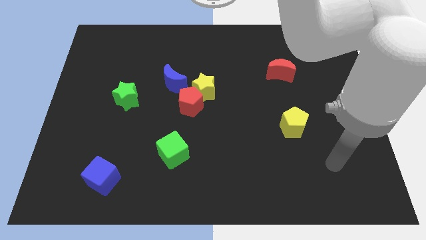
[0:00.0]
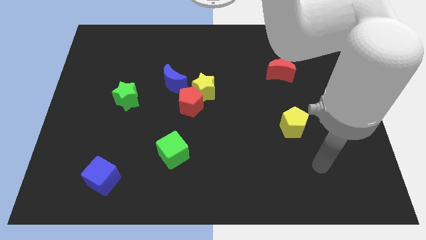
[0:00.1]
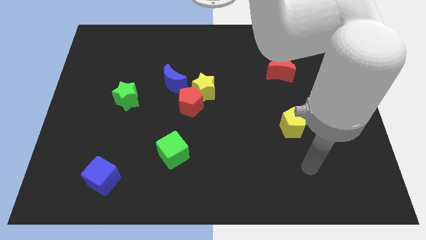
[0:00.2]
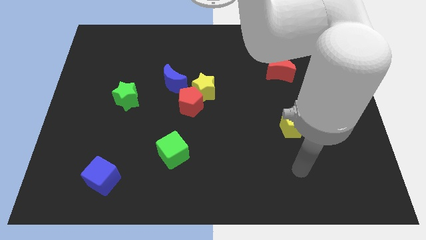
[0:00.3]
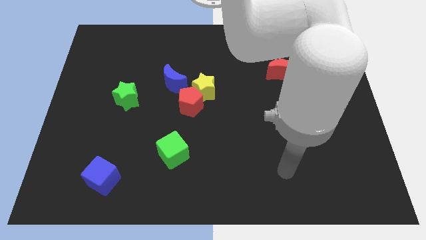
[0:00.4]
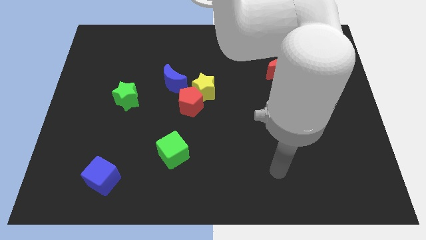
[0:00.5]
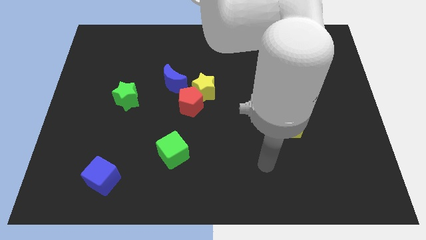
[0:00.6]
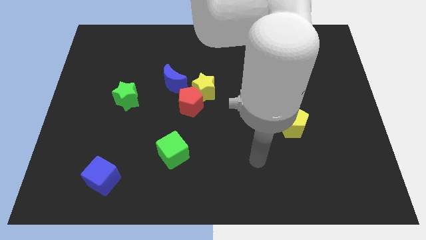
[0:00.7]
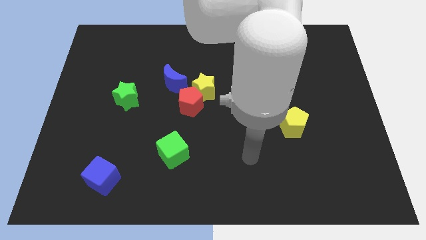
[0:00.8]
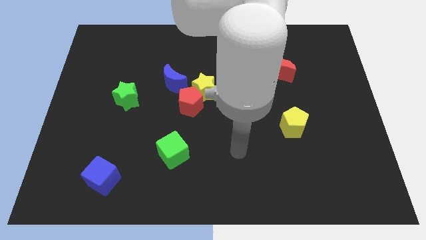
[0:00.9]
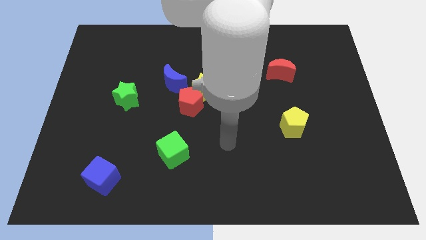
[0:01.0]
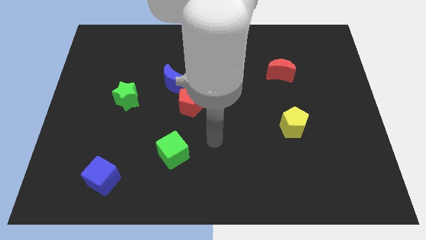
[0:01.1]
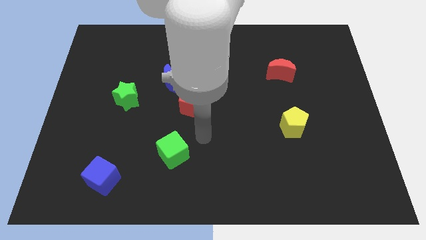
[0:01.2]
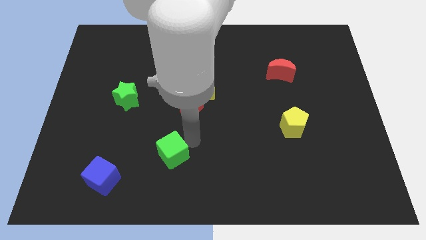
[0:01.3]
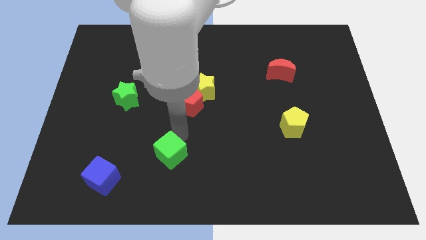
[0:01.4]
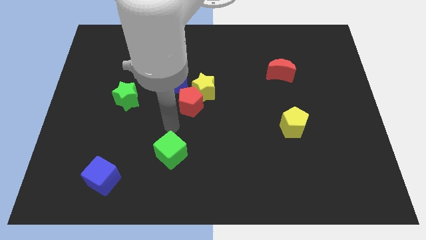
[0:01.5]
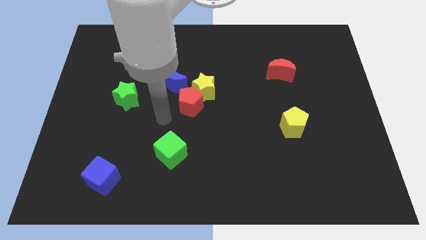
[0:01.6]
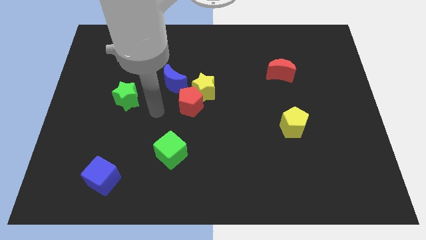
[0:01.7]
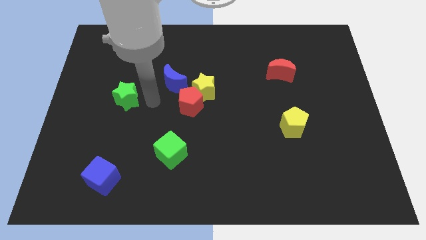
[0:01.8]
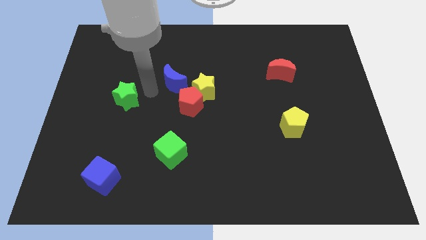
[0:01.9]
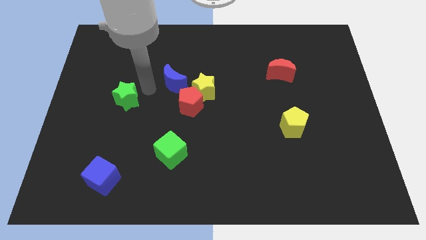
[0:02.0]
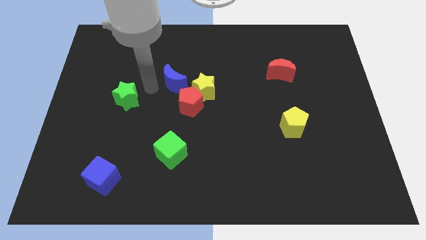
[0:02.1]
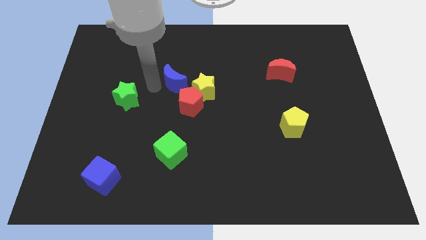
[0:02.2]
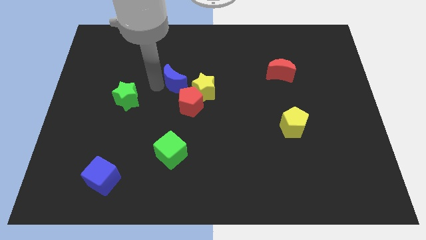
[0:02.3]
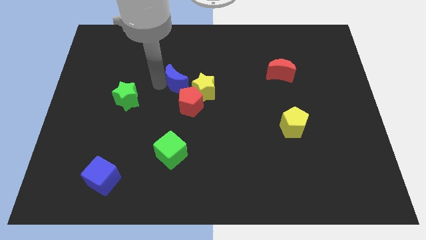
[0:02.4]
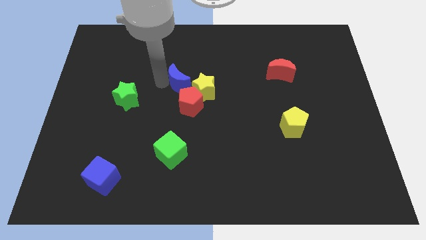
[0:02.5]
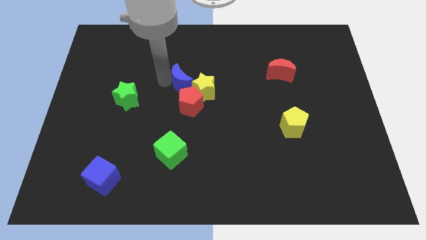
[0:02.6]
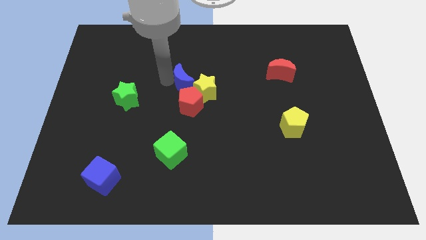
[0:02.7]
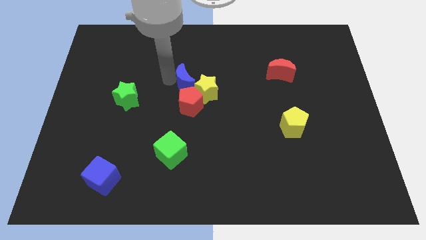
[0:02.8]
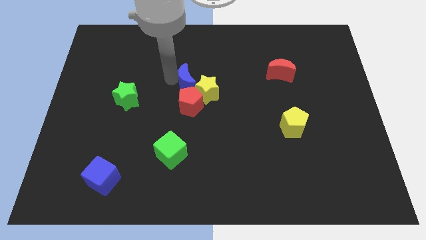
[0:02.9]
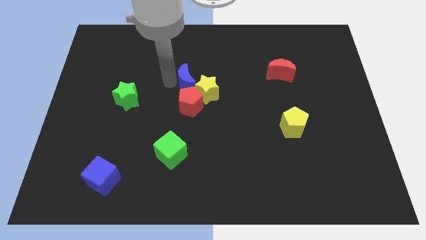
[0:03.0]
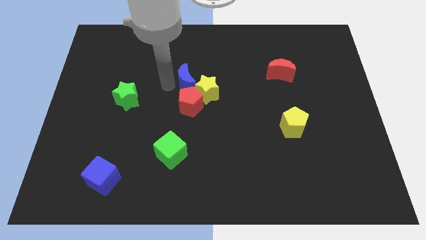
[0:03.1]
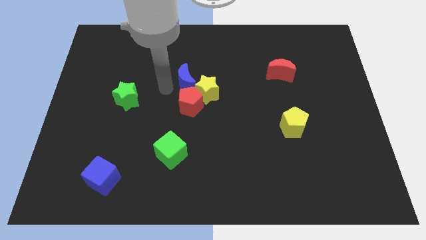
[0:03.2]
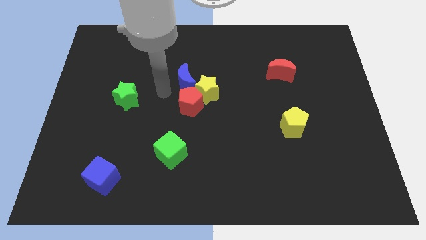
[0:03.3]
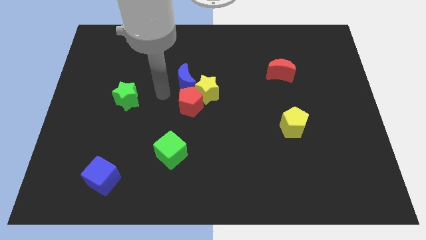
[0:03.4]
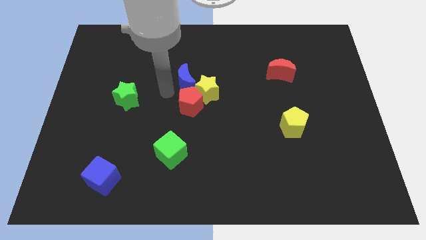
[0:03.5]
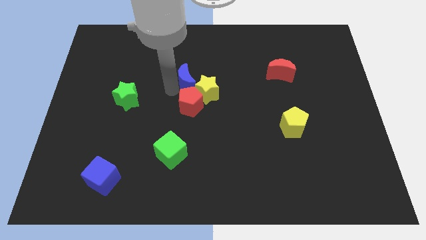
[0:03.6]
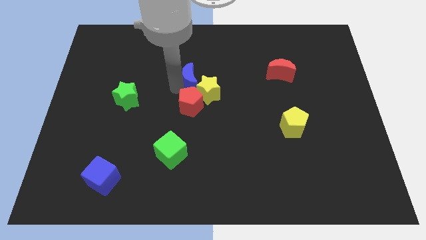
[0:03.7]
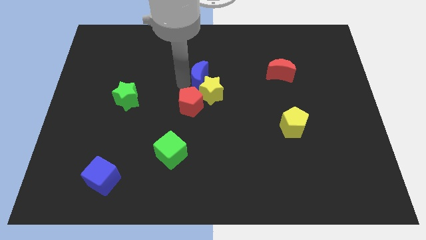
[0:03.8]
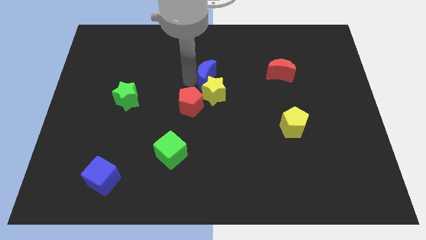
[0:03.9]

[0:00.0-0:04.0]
slightly slide the blue moon right

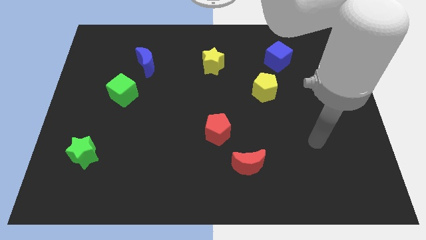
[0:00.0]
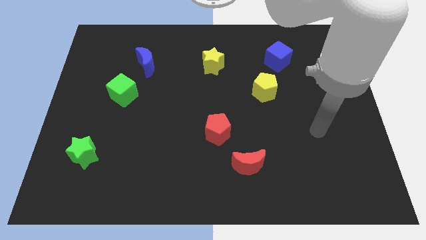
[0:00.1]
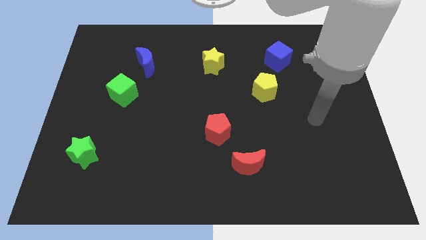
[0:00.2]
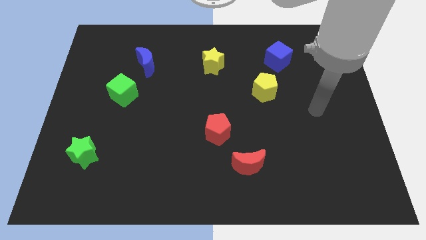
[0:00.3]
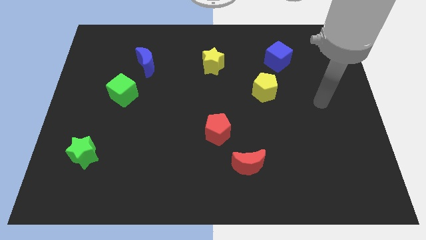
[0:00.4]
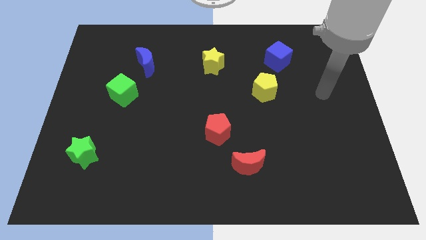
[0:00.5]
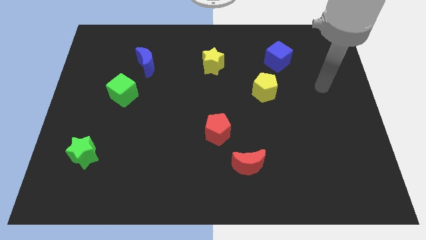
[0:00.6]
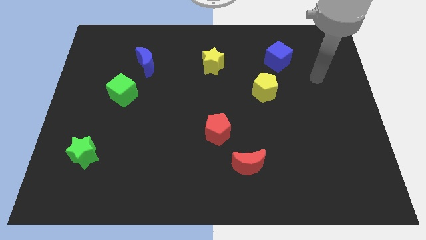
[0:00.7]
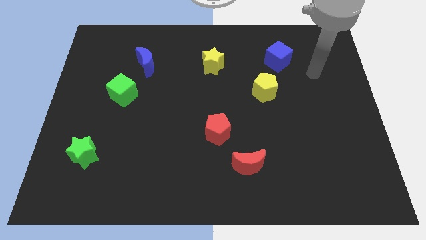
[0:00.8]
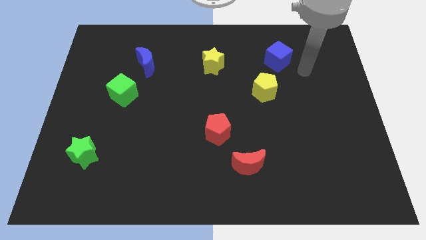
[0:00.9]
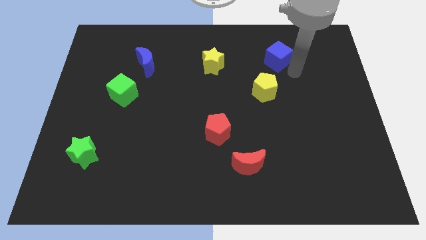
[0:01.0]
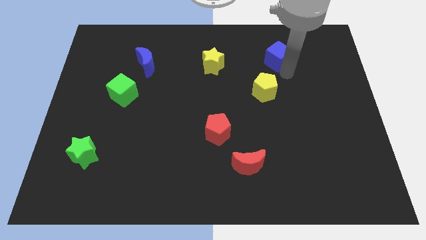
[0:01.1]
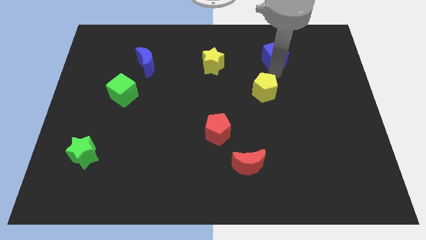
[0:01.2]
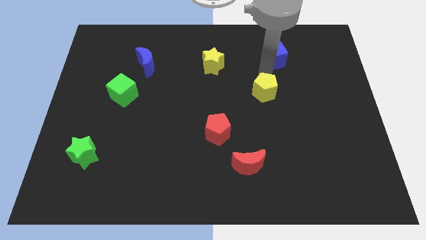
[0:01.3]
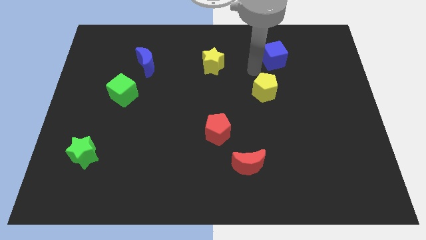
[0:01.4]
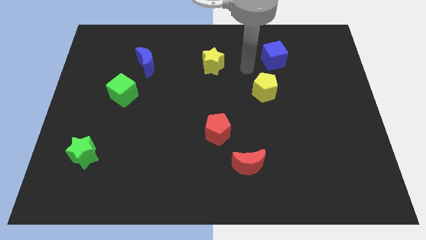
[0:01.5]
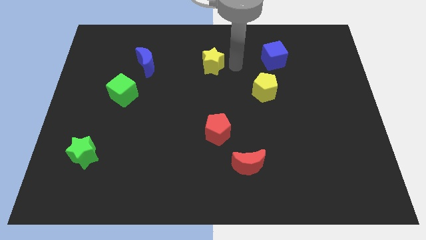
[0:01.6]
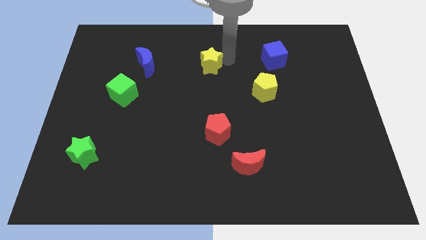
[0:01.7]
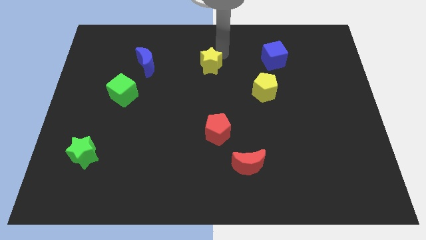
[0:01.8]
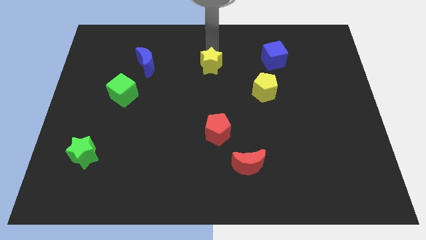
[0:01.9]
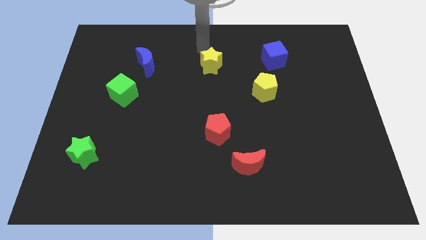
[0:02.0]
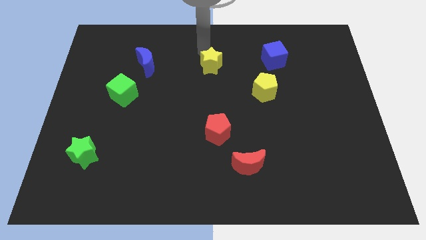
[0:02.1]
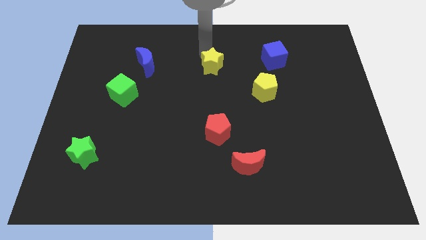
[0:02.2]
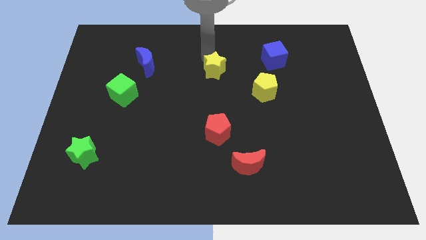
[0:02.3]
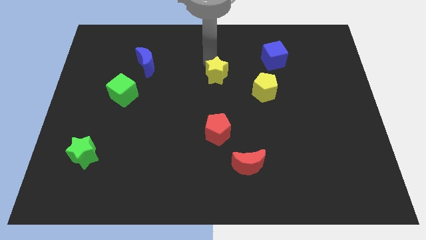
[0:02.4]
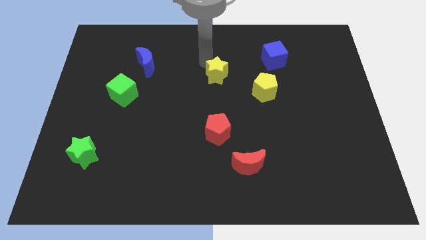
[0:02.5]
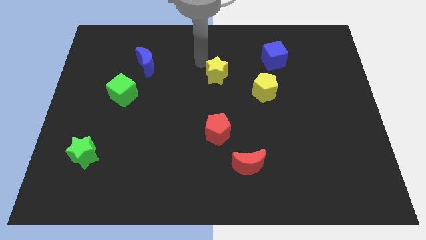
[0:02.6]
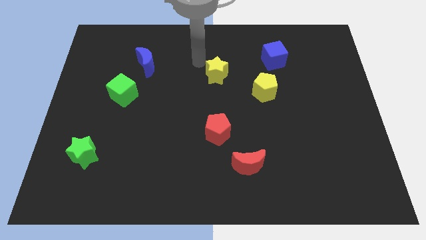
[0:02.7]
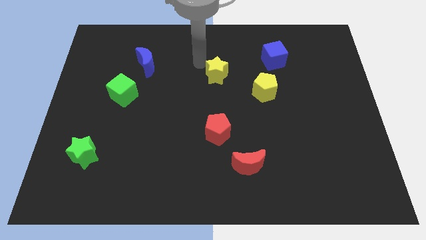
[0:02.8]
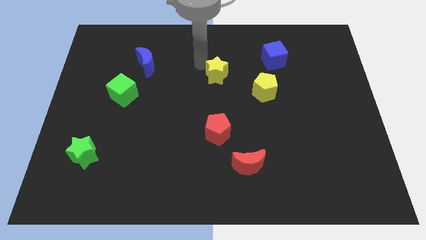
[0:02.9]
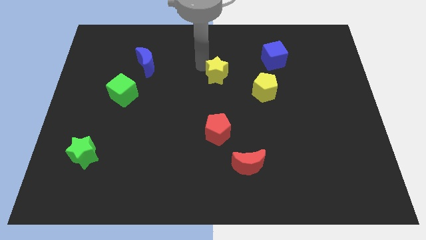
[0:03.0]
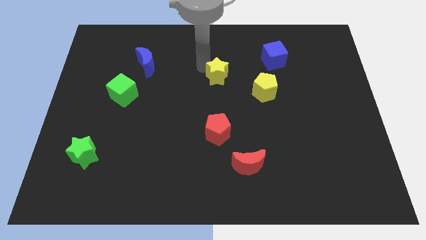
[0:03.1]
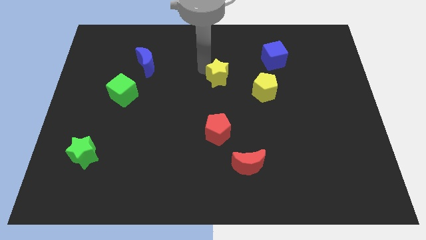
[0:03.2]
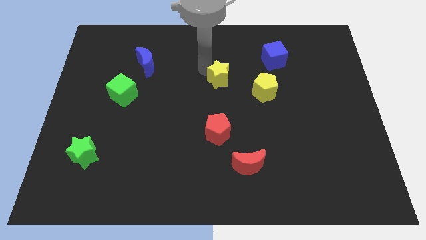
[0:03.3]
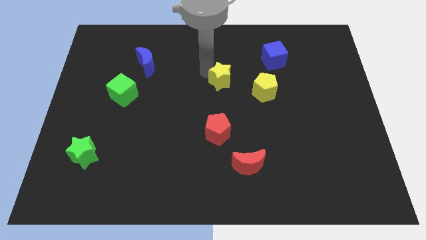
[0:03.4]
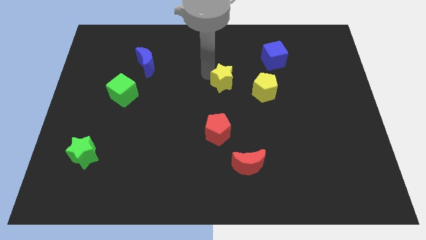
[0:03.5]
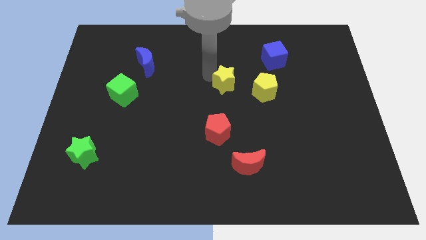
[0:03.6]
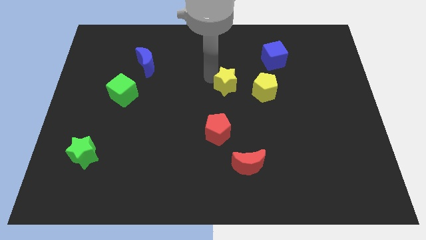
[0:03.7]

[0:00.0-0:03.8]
slightly slide the yellow star down and right diagonally

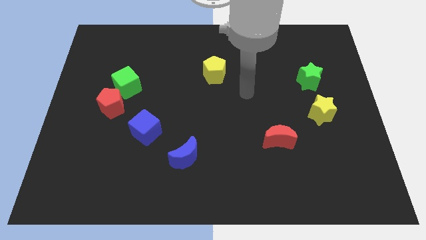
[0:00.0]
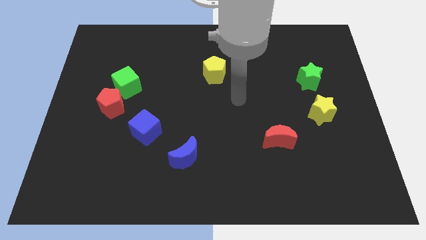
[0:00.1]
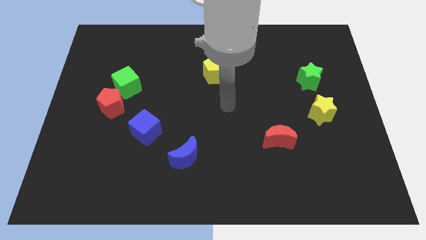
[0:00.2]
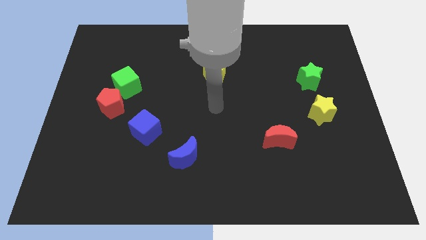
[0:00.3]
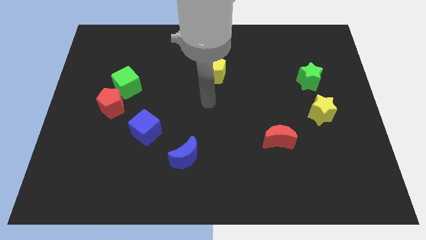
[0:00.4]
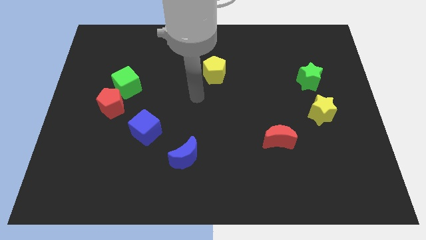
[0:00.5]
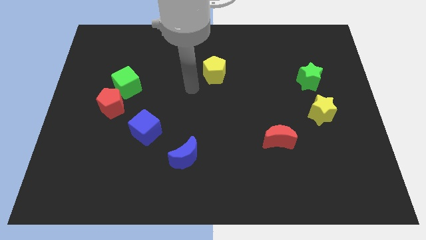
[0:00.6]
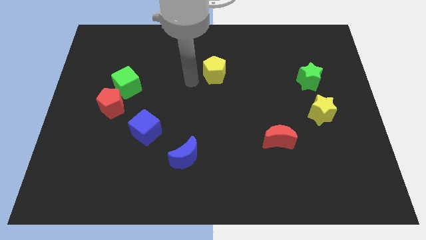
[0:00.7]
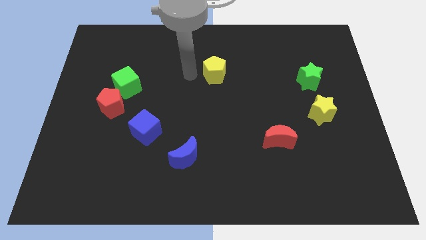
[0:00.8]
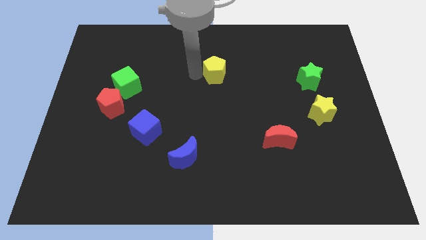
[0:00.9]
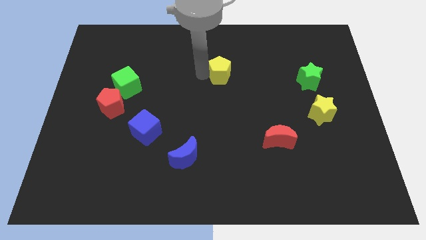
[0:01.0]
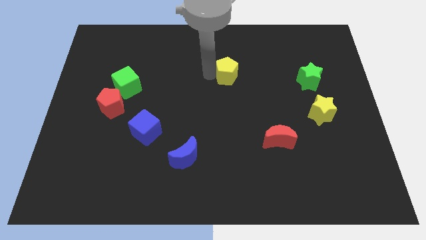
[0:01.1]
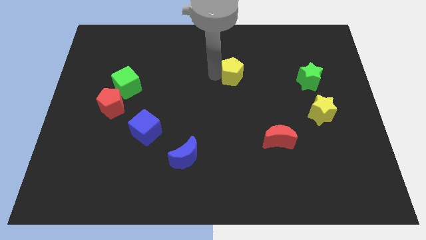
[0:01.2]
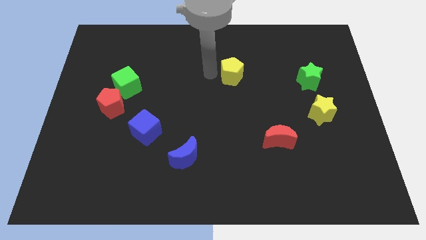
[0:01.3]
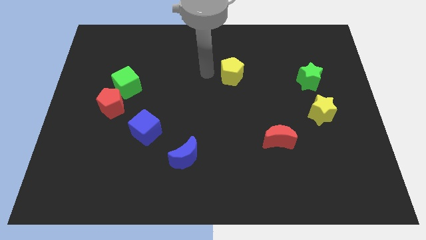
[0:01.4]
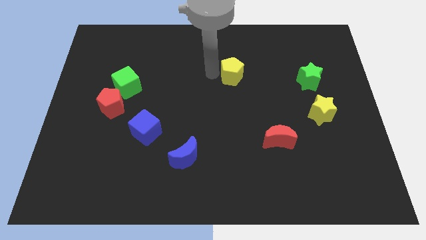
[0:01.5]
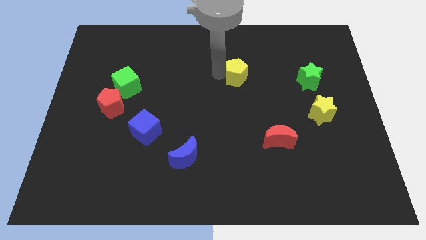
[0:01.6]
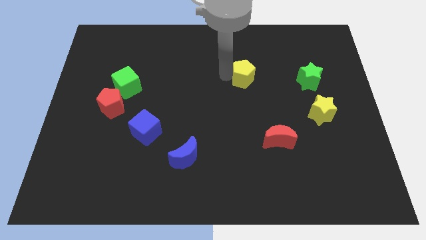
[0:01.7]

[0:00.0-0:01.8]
push the yellow pentagon a bit to the right
